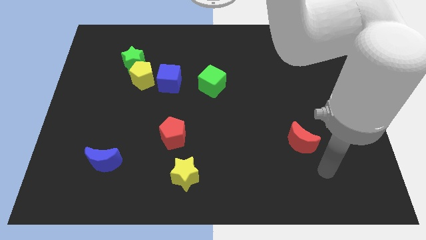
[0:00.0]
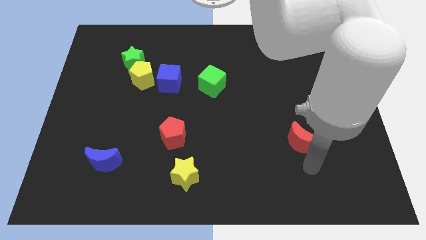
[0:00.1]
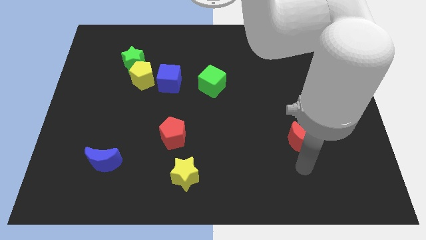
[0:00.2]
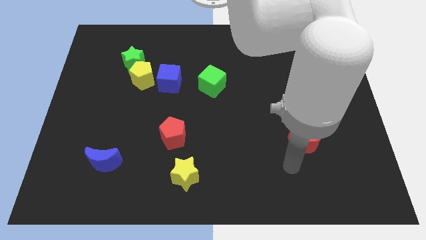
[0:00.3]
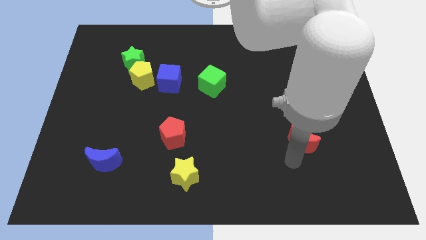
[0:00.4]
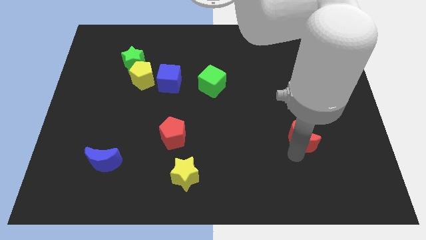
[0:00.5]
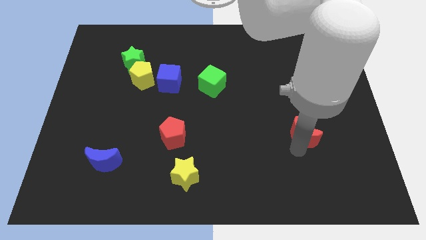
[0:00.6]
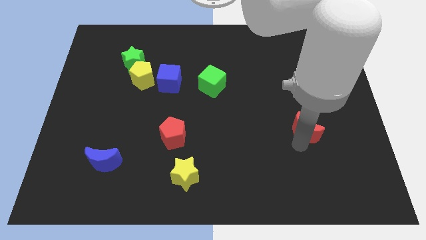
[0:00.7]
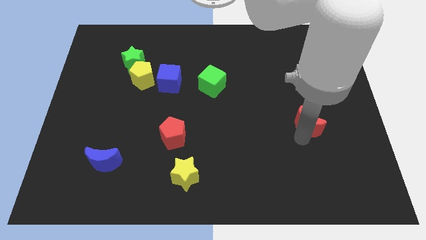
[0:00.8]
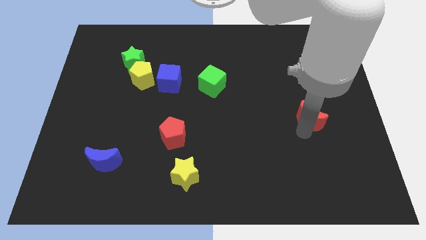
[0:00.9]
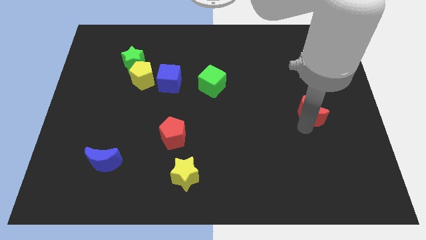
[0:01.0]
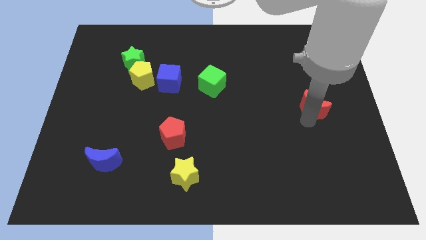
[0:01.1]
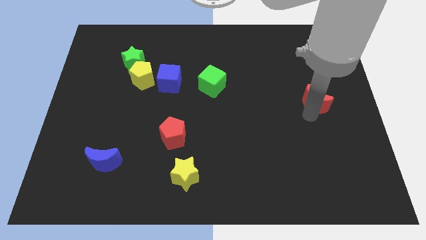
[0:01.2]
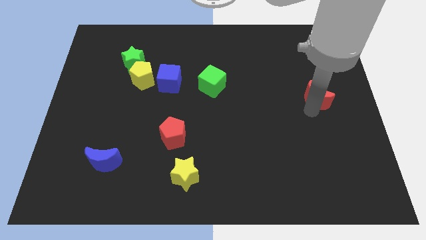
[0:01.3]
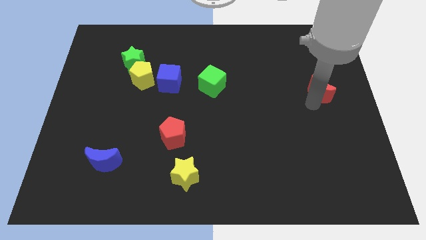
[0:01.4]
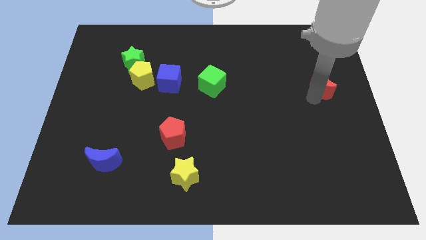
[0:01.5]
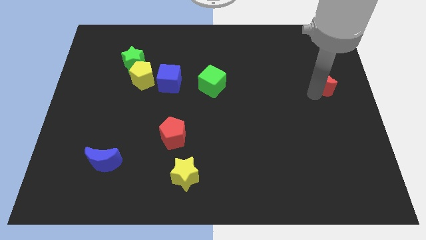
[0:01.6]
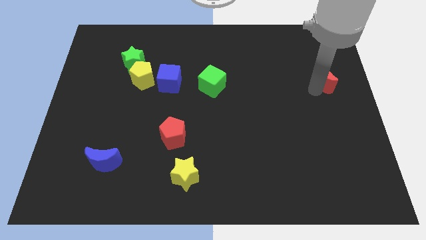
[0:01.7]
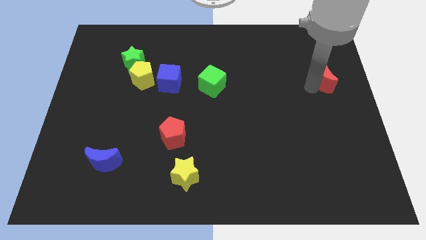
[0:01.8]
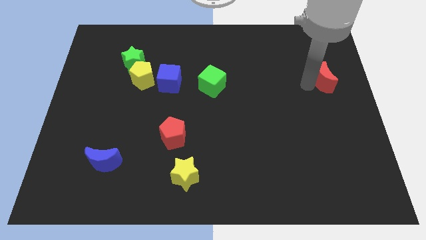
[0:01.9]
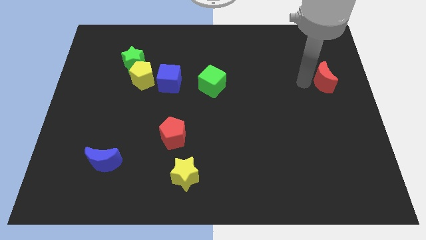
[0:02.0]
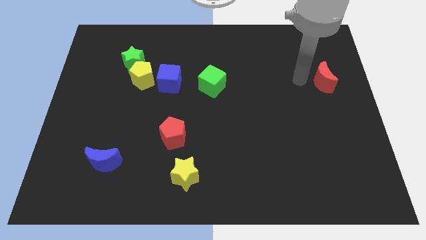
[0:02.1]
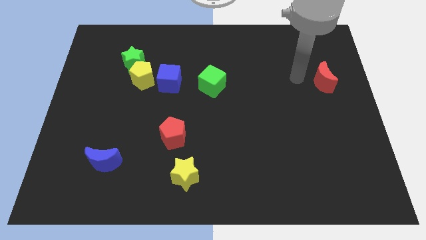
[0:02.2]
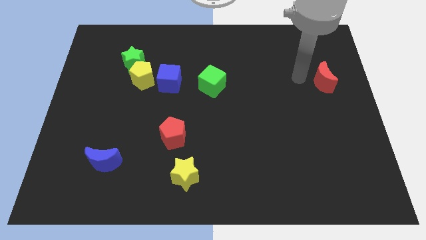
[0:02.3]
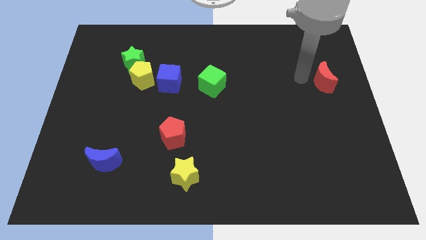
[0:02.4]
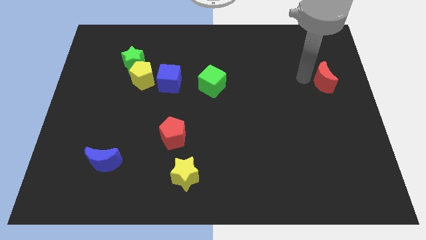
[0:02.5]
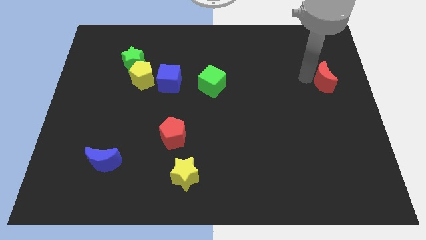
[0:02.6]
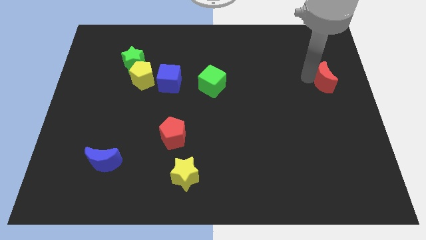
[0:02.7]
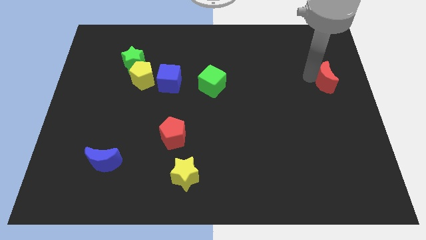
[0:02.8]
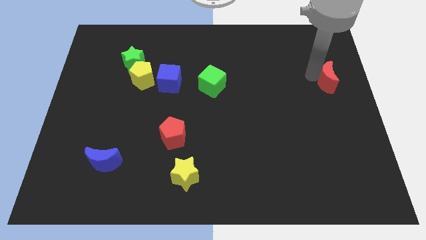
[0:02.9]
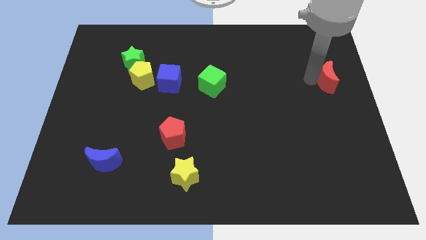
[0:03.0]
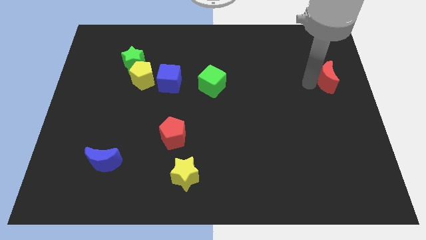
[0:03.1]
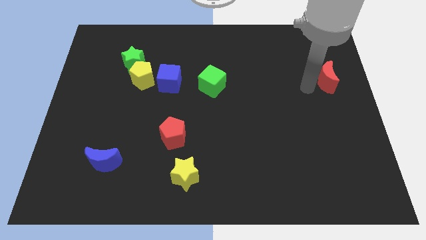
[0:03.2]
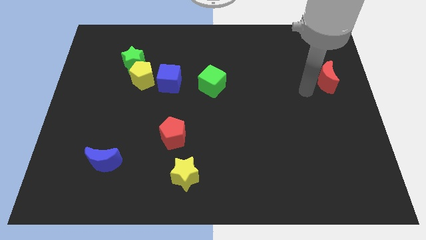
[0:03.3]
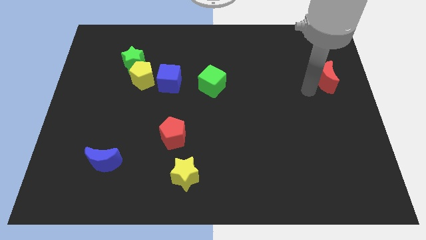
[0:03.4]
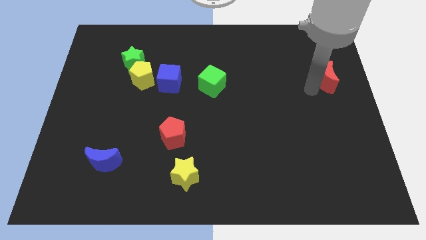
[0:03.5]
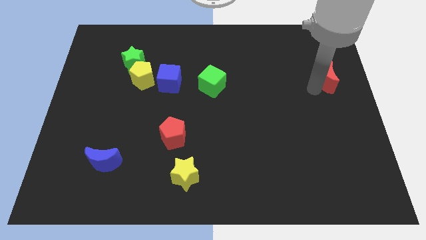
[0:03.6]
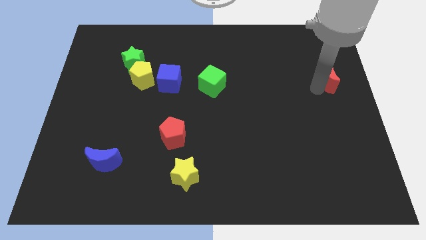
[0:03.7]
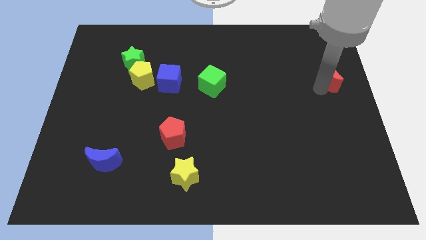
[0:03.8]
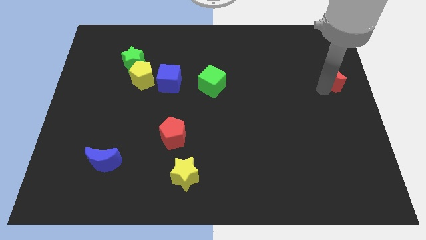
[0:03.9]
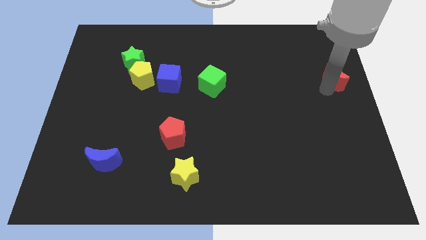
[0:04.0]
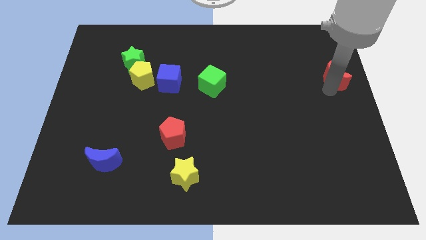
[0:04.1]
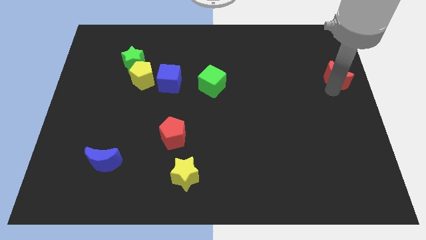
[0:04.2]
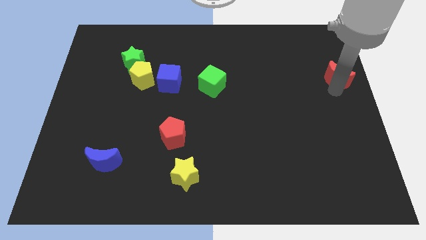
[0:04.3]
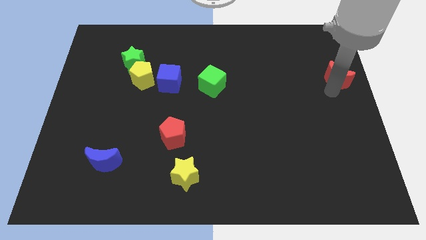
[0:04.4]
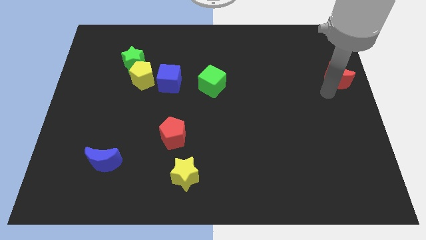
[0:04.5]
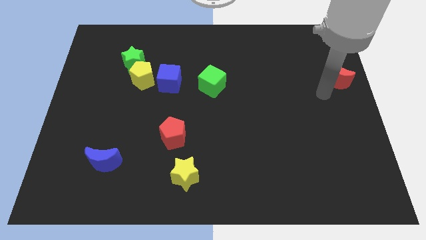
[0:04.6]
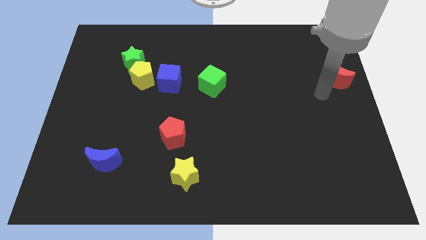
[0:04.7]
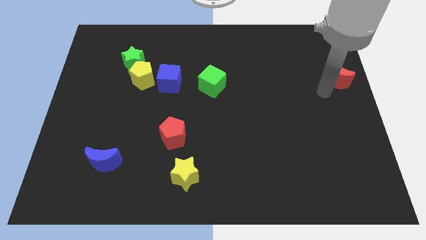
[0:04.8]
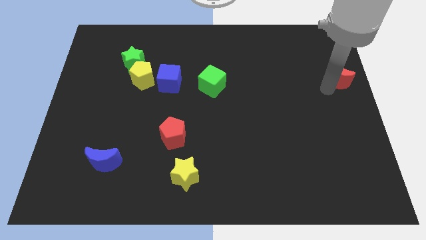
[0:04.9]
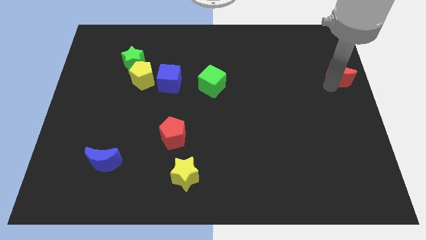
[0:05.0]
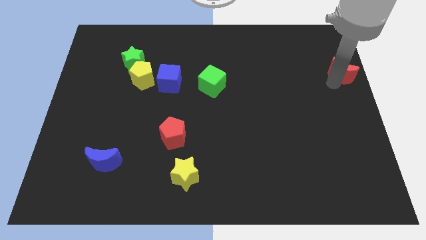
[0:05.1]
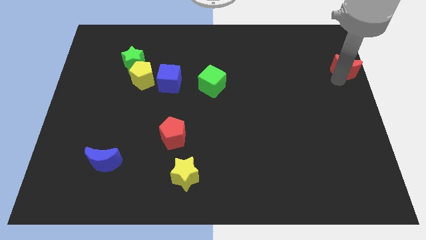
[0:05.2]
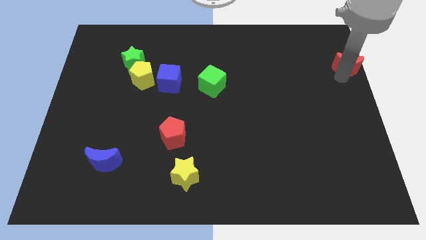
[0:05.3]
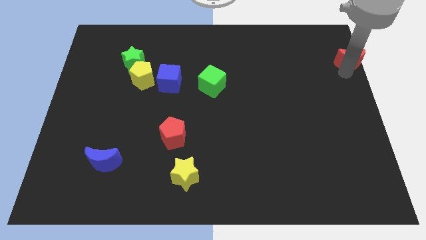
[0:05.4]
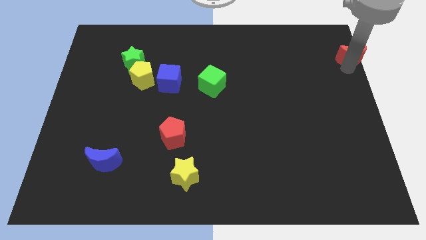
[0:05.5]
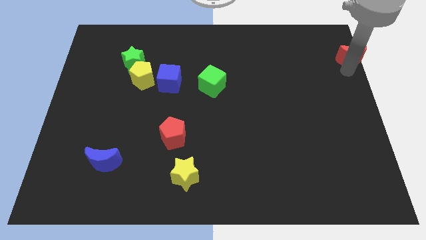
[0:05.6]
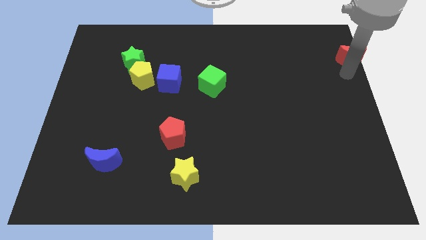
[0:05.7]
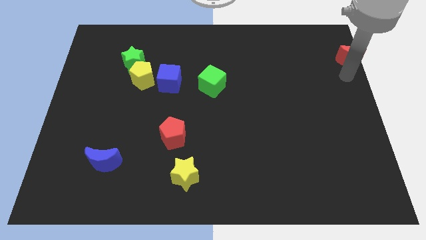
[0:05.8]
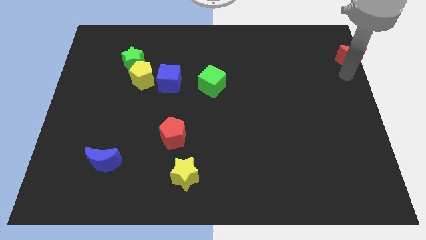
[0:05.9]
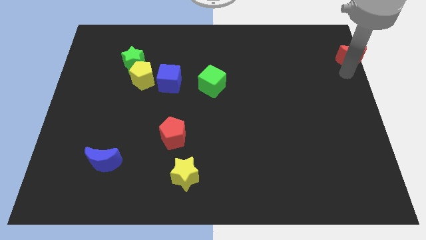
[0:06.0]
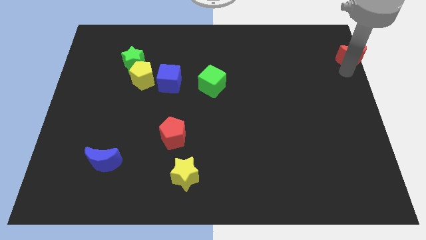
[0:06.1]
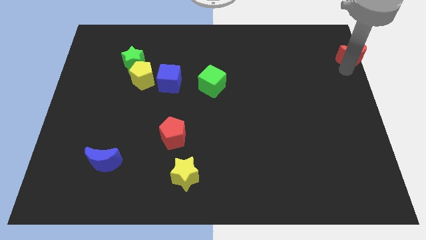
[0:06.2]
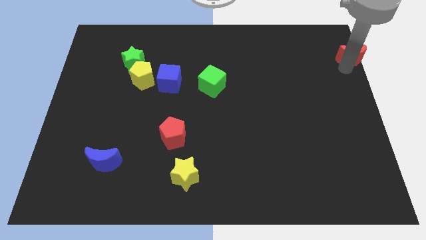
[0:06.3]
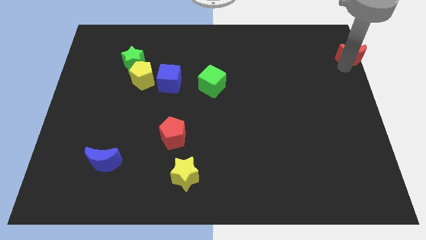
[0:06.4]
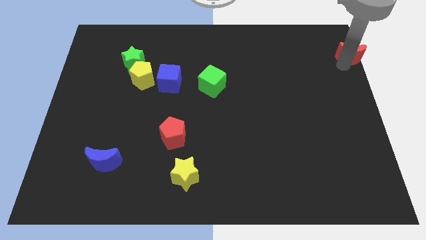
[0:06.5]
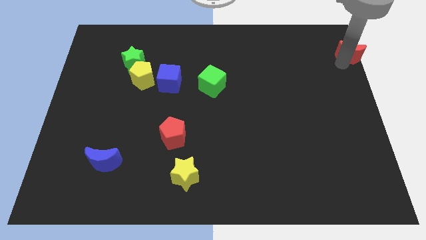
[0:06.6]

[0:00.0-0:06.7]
put the red moon to the top right
